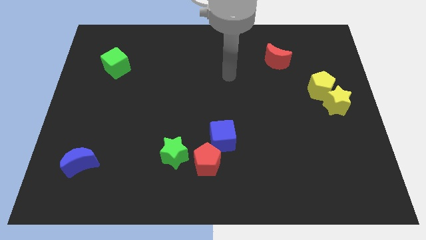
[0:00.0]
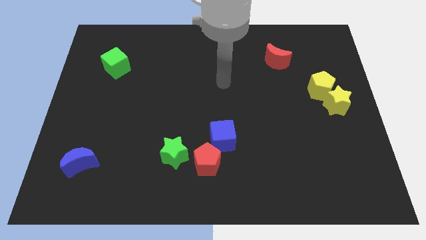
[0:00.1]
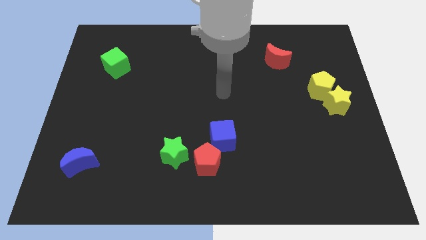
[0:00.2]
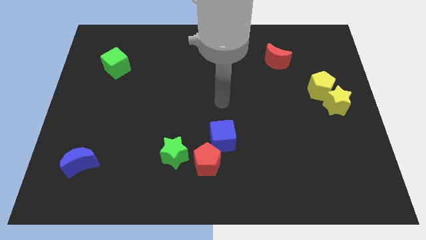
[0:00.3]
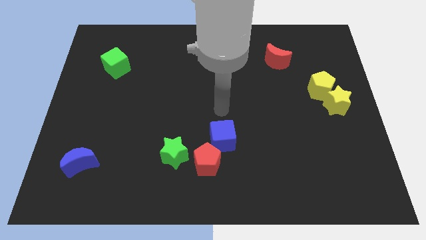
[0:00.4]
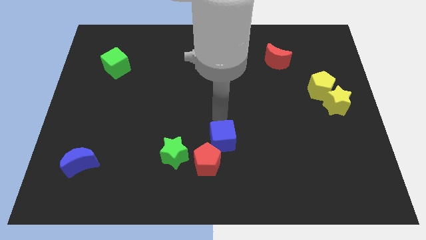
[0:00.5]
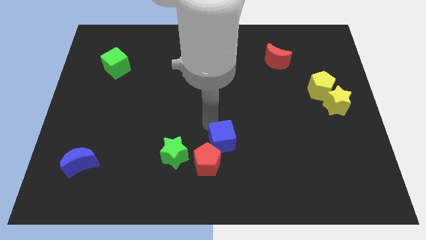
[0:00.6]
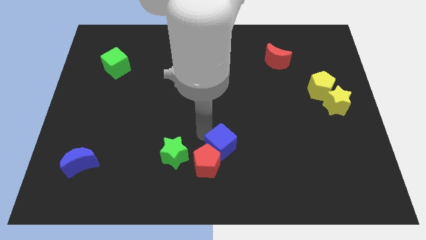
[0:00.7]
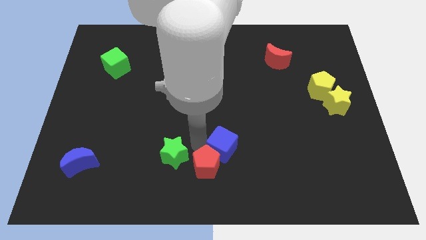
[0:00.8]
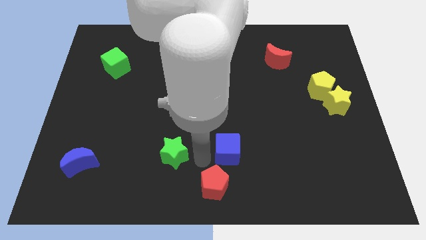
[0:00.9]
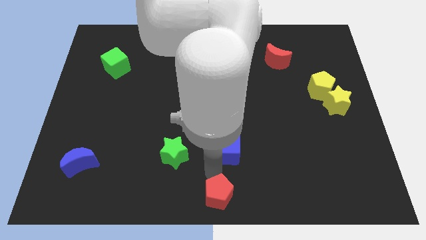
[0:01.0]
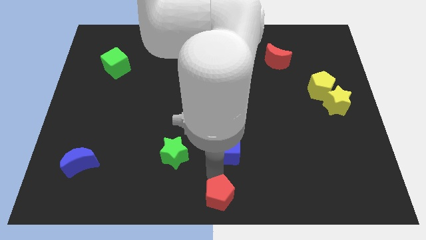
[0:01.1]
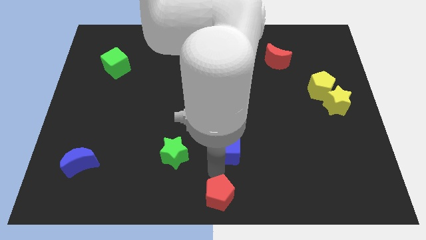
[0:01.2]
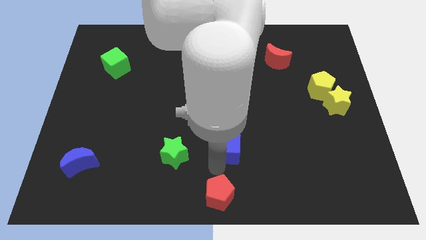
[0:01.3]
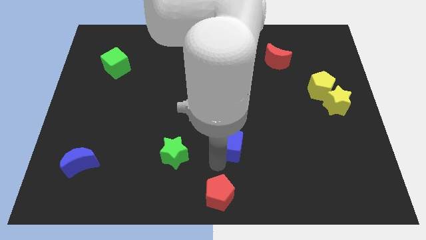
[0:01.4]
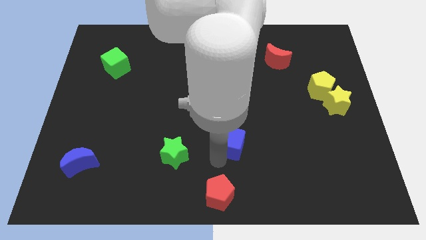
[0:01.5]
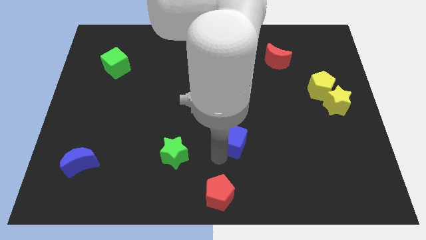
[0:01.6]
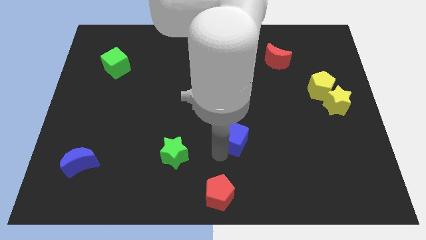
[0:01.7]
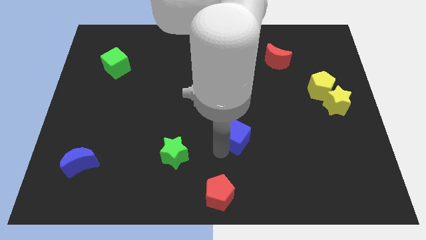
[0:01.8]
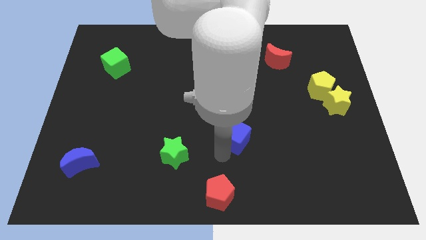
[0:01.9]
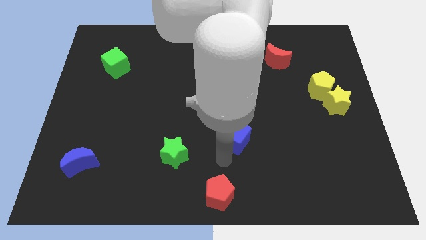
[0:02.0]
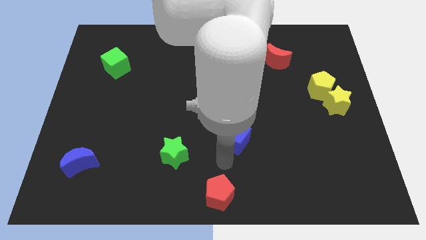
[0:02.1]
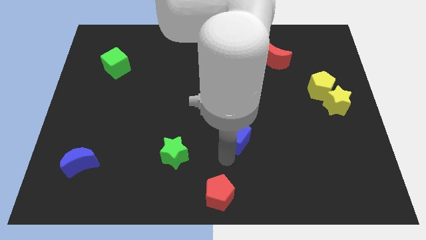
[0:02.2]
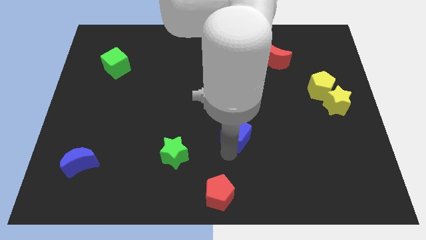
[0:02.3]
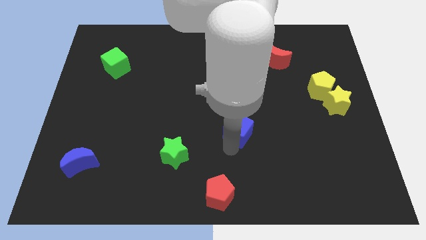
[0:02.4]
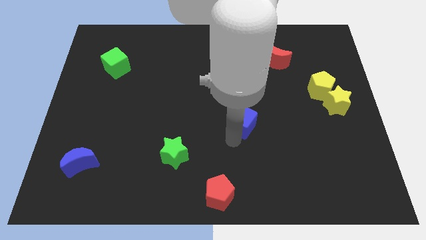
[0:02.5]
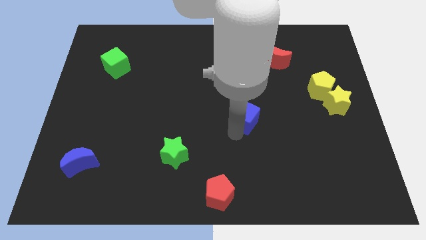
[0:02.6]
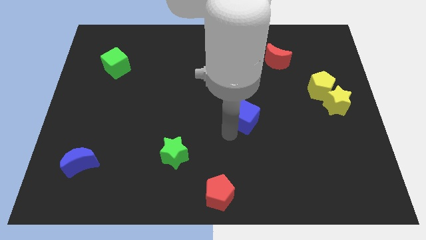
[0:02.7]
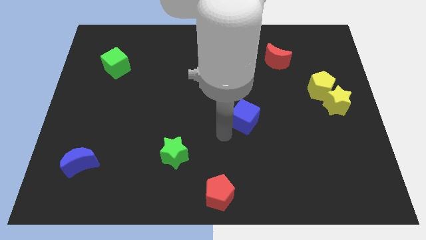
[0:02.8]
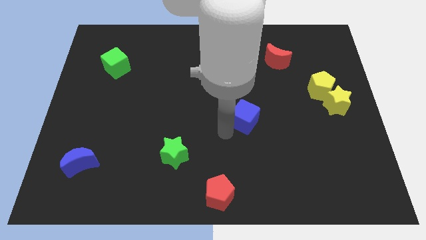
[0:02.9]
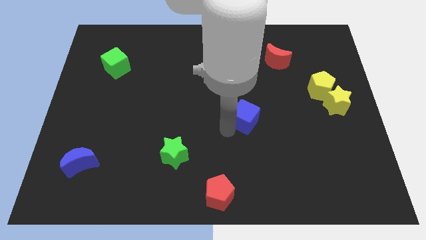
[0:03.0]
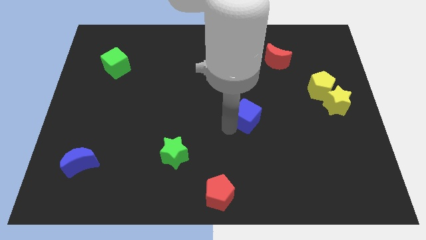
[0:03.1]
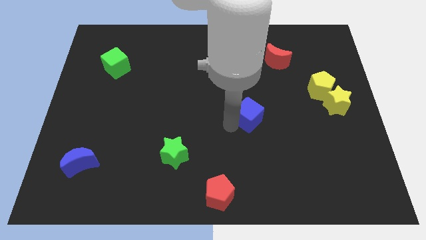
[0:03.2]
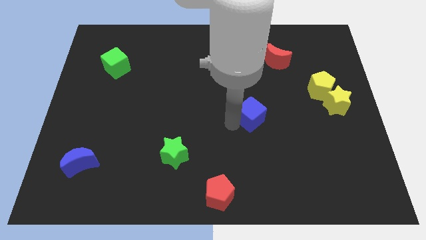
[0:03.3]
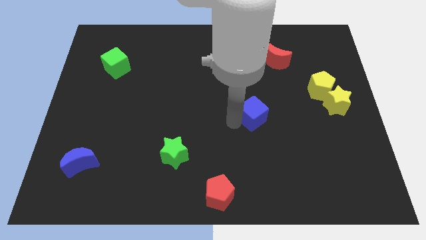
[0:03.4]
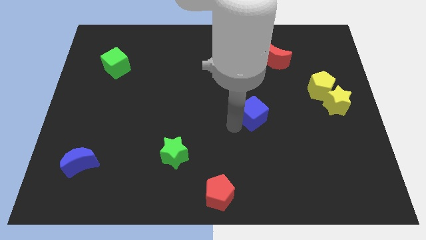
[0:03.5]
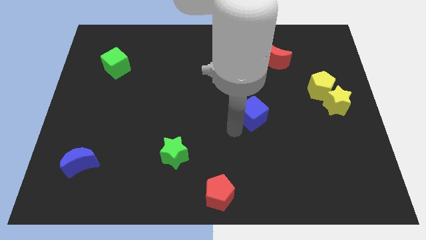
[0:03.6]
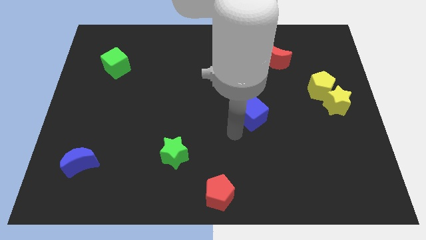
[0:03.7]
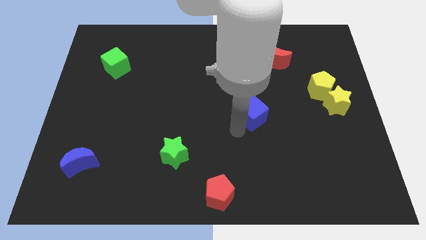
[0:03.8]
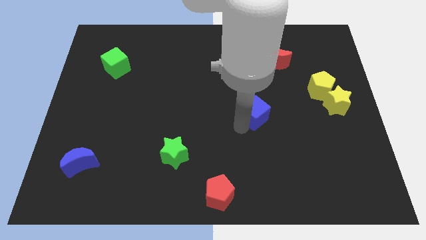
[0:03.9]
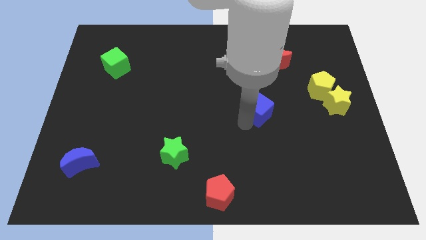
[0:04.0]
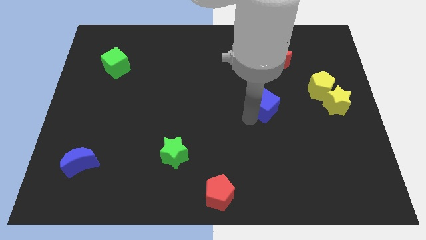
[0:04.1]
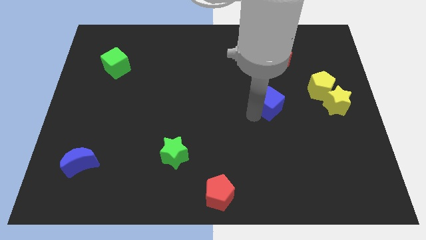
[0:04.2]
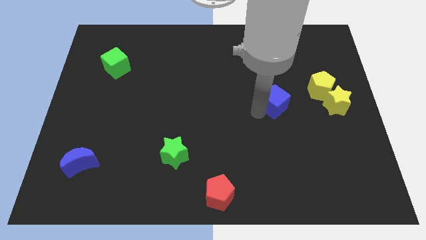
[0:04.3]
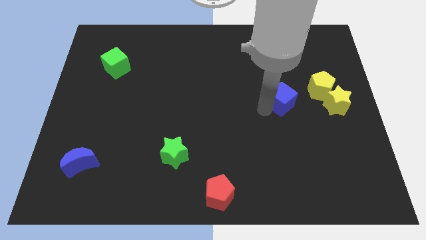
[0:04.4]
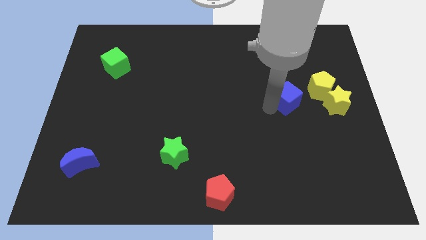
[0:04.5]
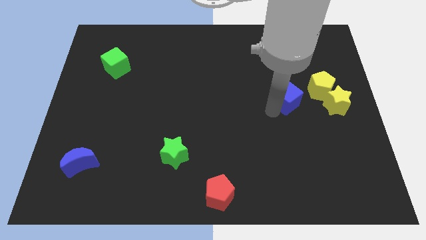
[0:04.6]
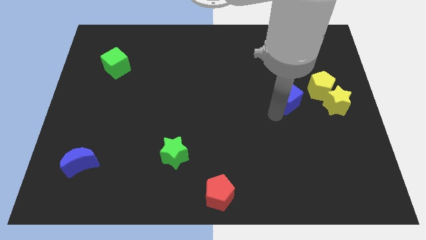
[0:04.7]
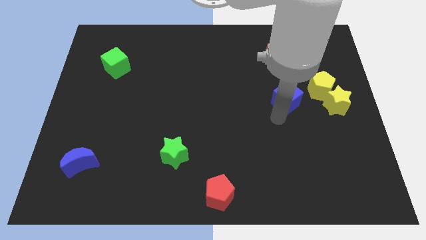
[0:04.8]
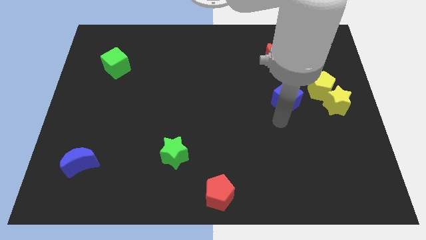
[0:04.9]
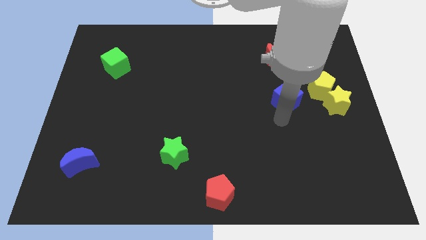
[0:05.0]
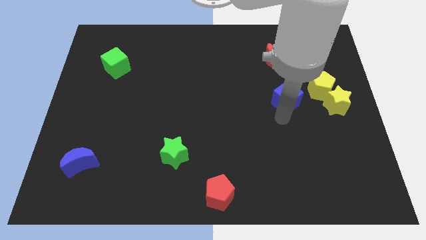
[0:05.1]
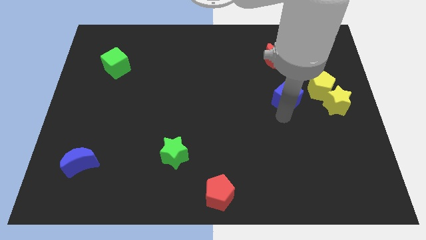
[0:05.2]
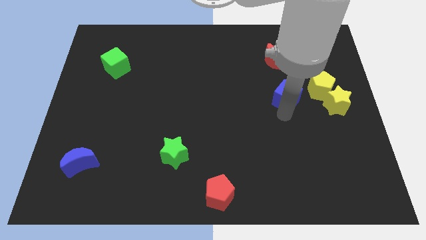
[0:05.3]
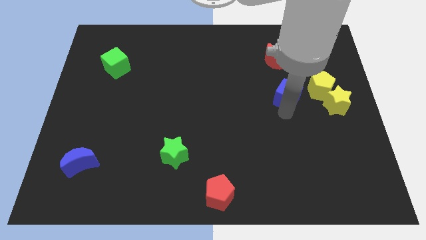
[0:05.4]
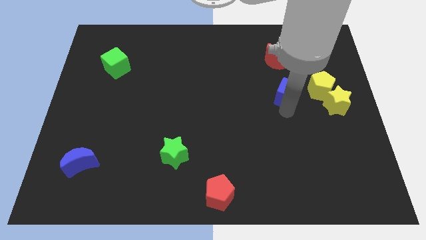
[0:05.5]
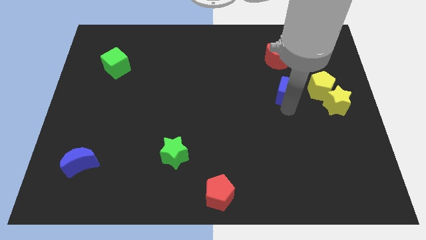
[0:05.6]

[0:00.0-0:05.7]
push the blue cube upwards and right

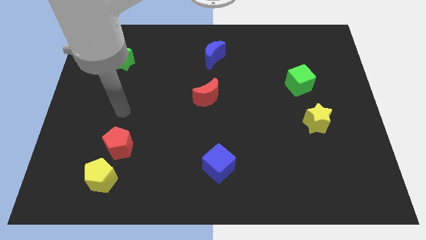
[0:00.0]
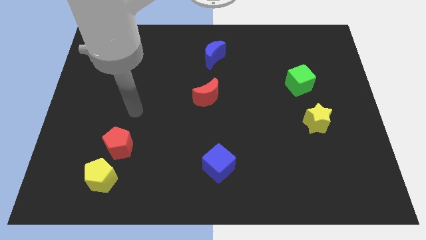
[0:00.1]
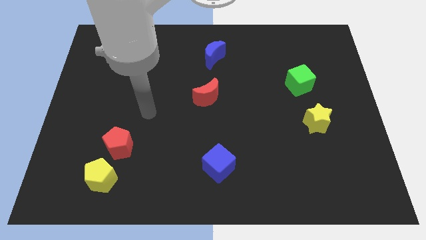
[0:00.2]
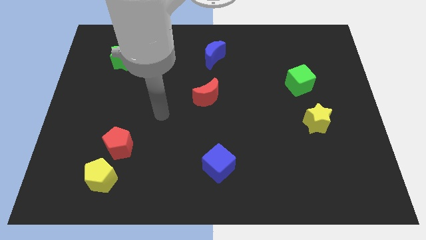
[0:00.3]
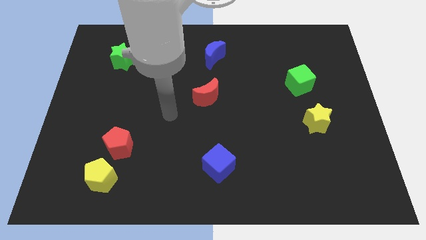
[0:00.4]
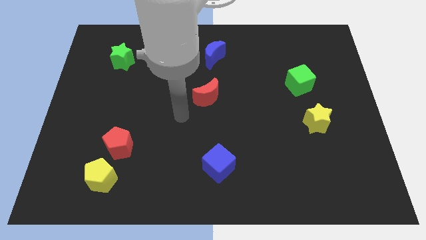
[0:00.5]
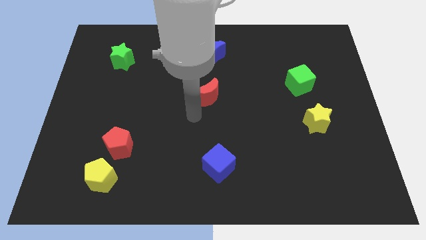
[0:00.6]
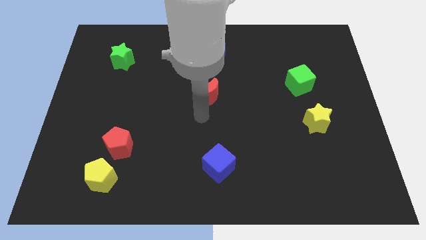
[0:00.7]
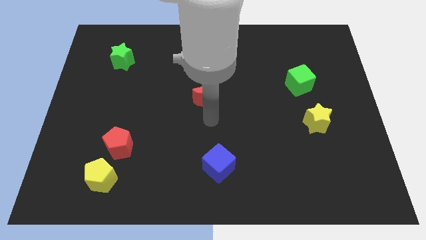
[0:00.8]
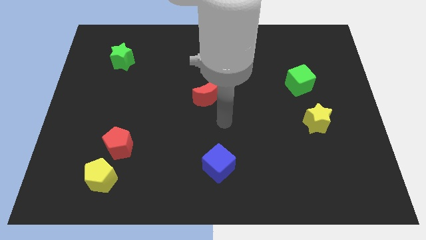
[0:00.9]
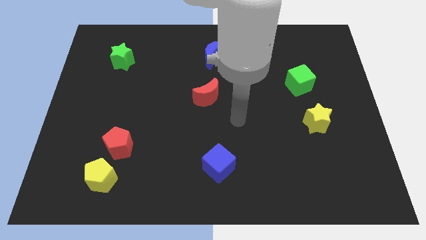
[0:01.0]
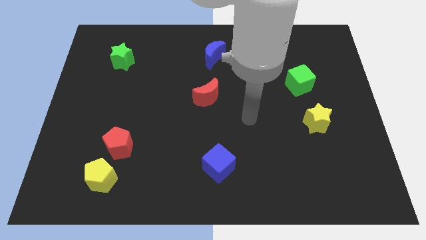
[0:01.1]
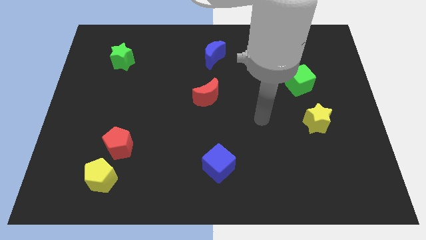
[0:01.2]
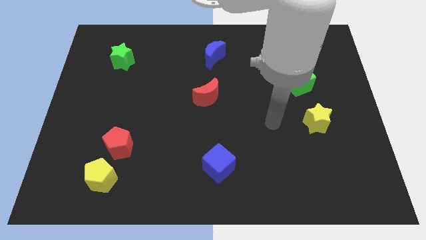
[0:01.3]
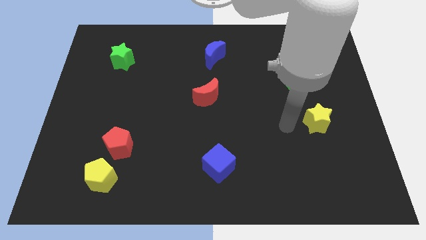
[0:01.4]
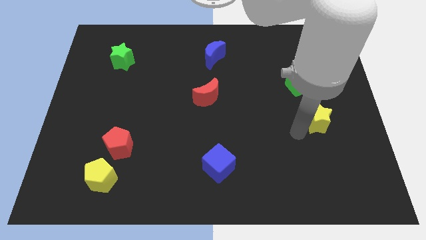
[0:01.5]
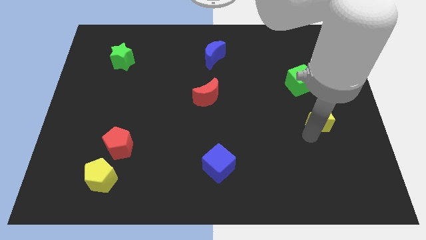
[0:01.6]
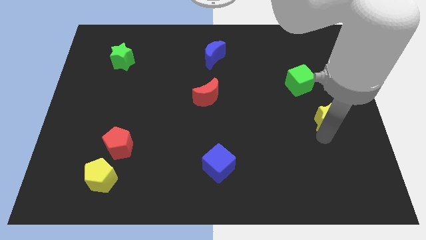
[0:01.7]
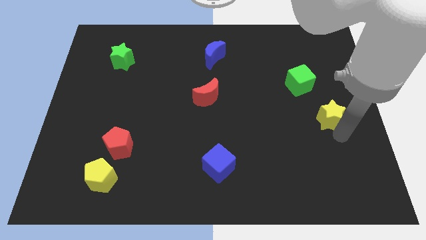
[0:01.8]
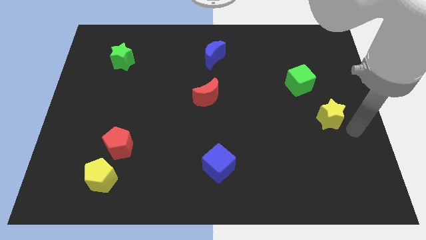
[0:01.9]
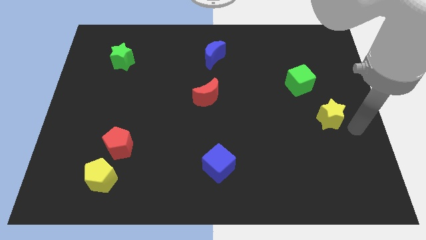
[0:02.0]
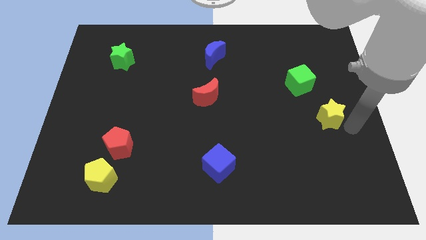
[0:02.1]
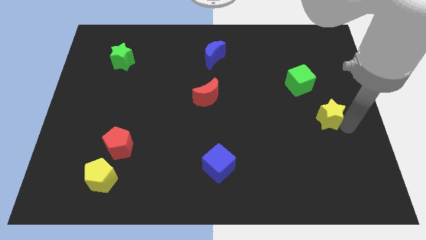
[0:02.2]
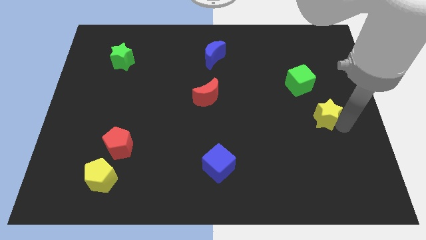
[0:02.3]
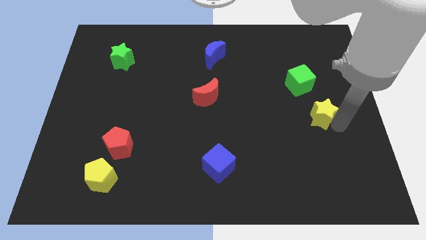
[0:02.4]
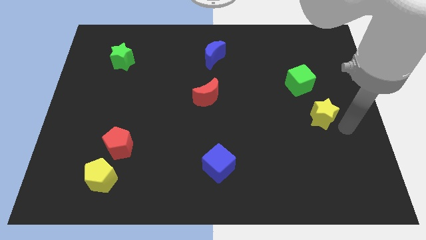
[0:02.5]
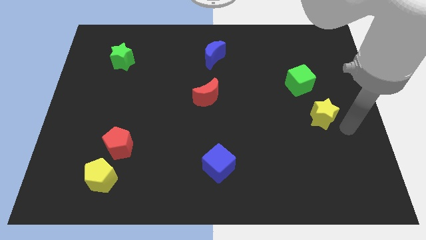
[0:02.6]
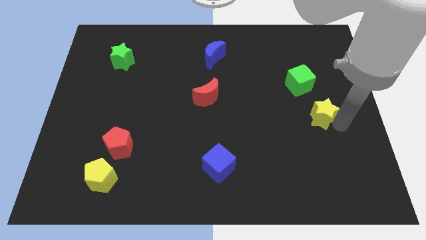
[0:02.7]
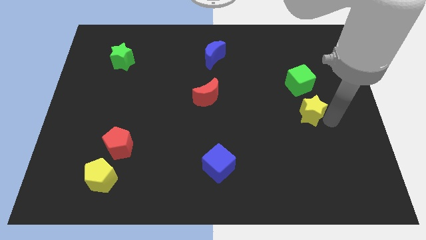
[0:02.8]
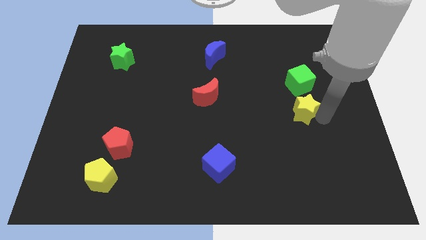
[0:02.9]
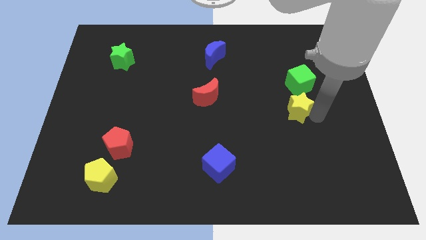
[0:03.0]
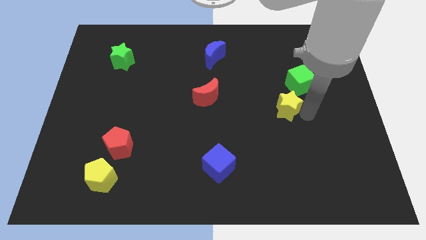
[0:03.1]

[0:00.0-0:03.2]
slightly push the yellow star up and to the left
